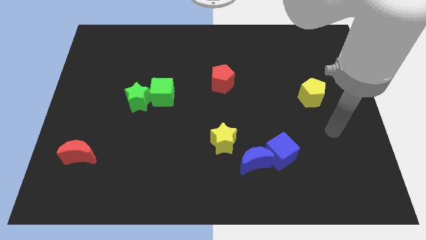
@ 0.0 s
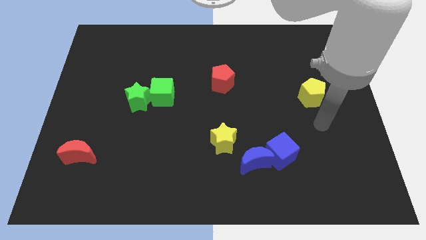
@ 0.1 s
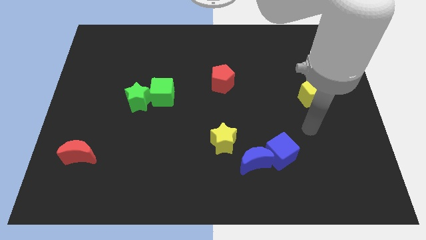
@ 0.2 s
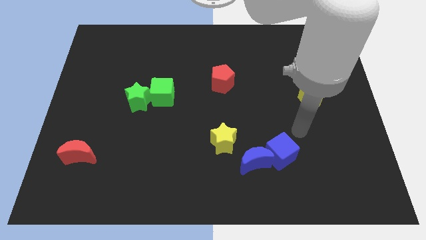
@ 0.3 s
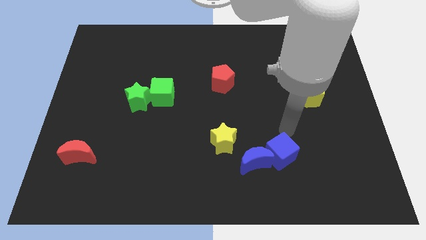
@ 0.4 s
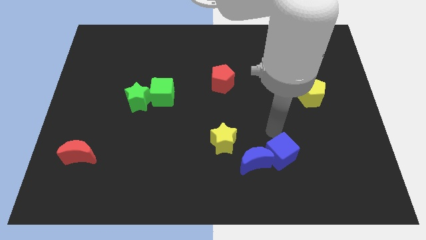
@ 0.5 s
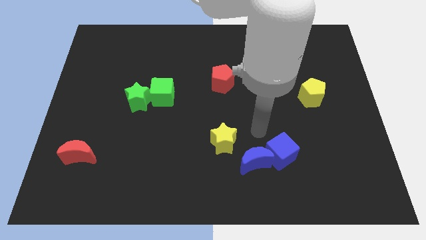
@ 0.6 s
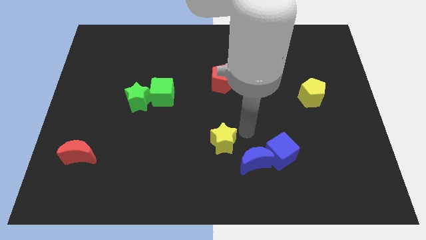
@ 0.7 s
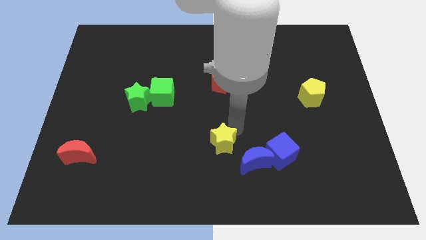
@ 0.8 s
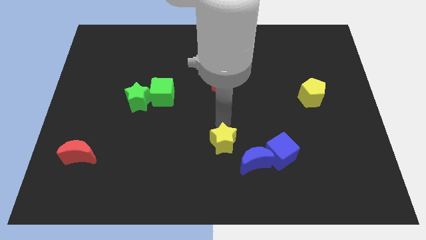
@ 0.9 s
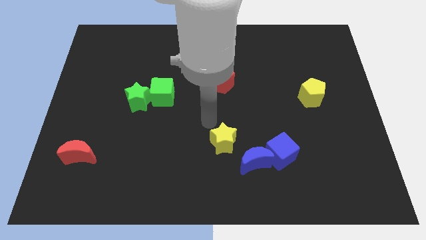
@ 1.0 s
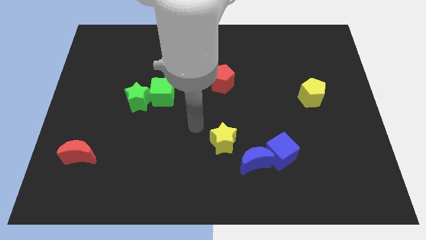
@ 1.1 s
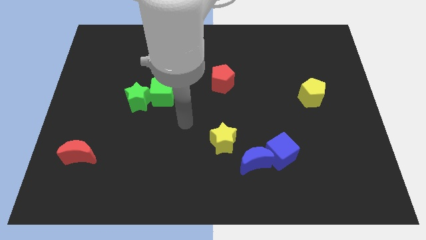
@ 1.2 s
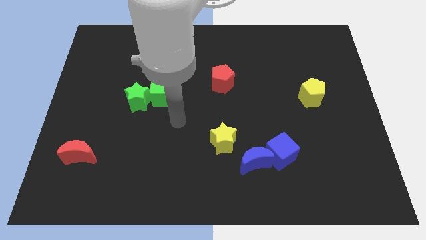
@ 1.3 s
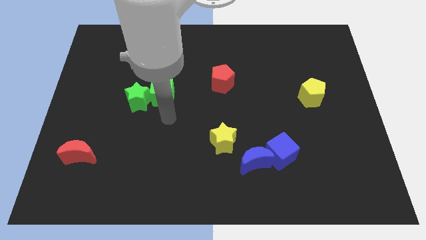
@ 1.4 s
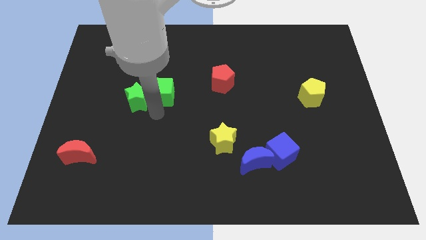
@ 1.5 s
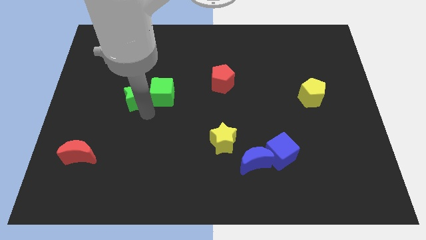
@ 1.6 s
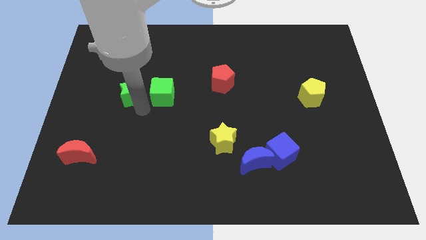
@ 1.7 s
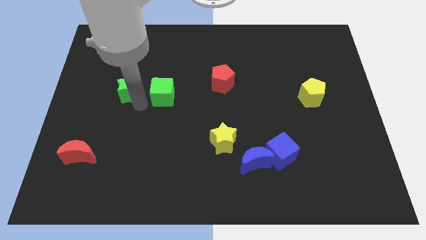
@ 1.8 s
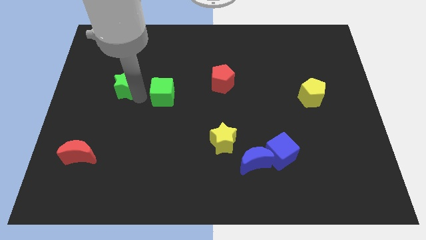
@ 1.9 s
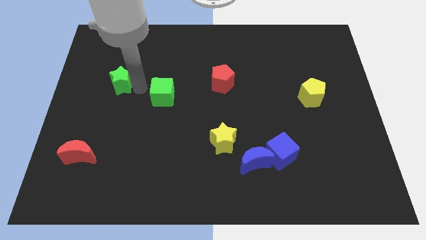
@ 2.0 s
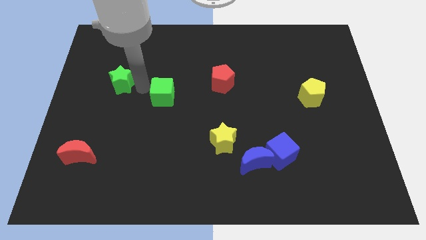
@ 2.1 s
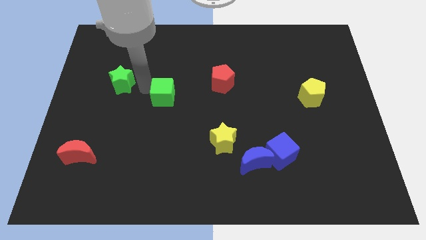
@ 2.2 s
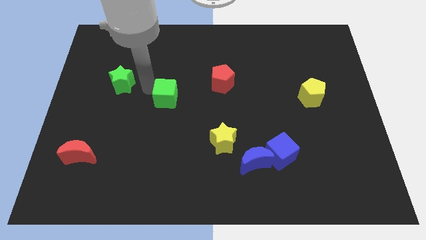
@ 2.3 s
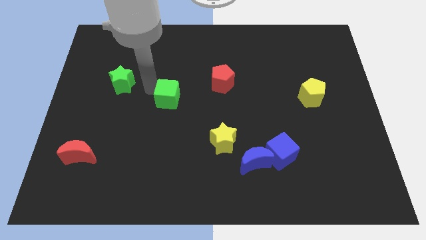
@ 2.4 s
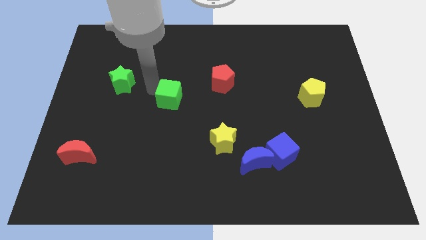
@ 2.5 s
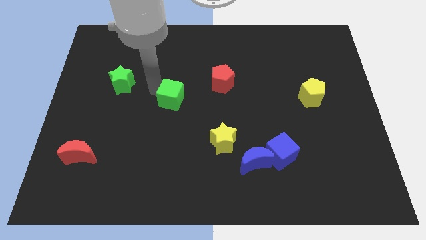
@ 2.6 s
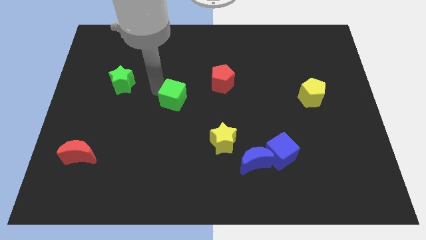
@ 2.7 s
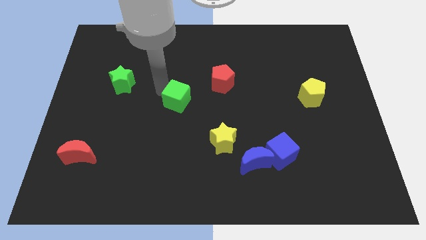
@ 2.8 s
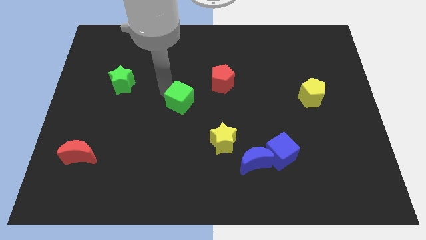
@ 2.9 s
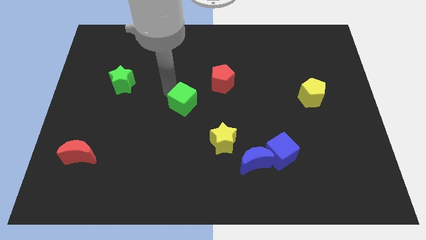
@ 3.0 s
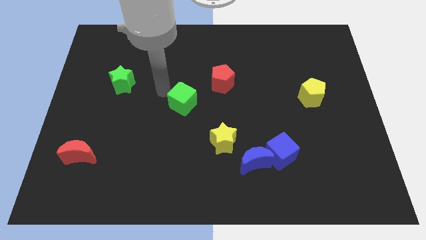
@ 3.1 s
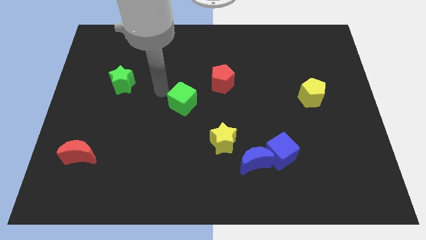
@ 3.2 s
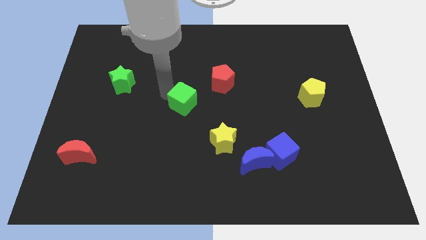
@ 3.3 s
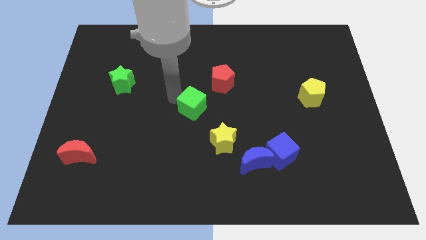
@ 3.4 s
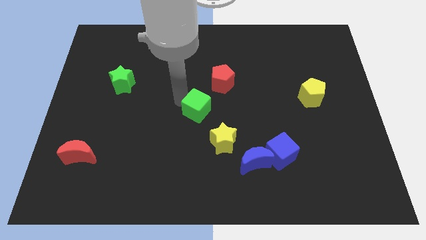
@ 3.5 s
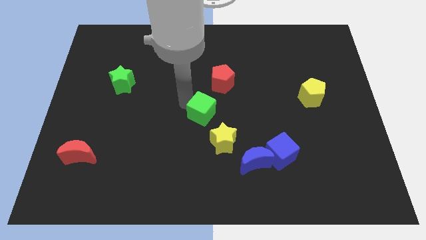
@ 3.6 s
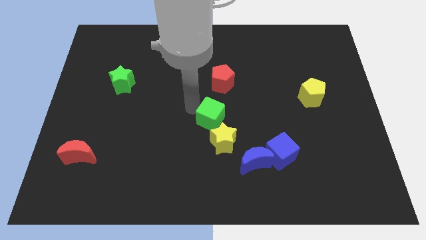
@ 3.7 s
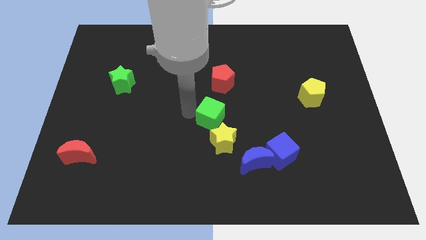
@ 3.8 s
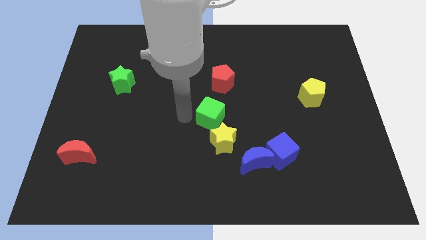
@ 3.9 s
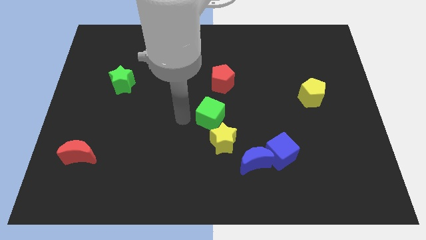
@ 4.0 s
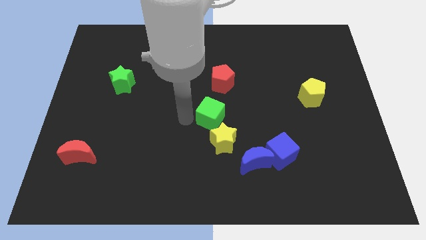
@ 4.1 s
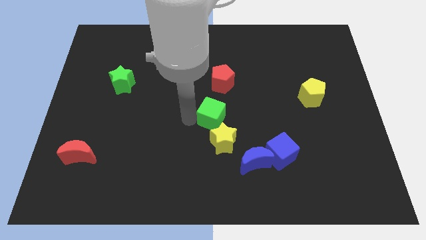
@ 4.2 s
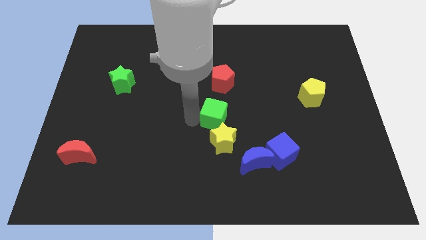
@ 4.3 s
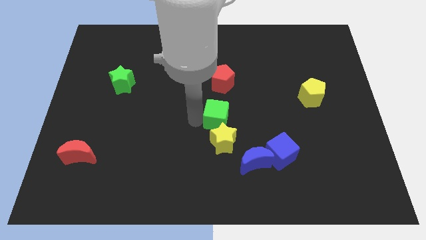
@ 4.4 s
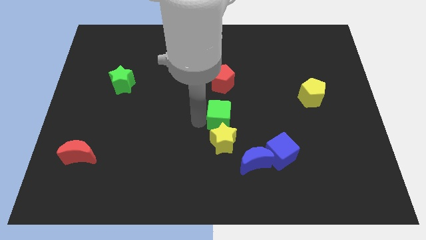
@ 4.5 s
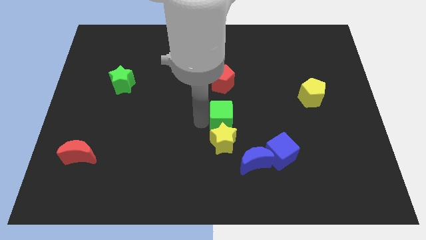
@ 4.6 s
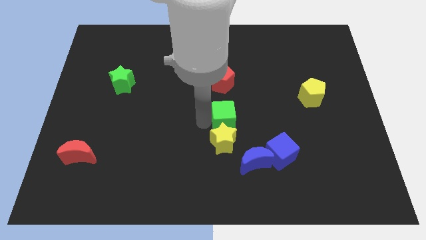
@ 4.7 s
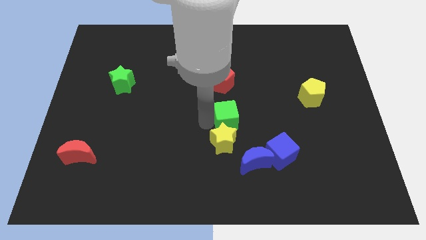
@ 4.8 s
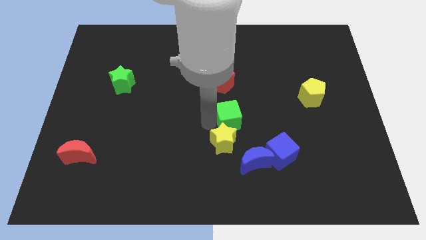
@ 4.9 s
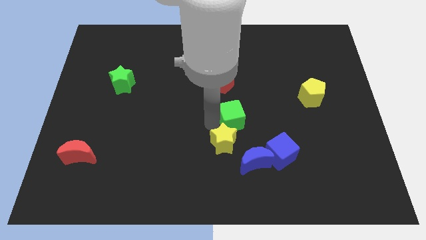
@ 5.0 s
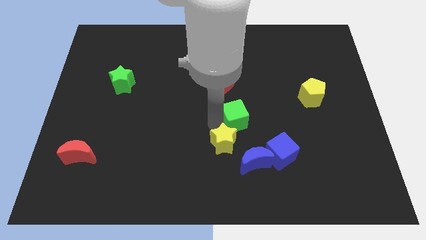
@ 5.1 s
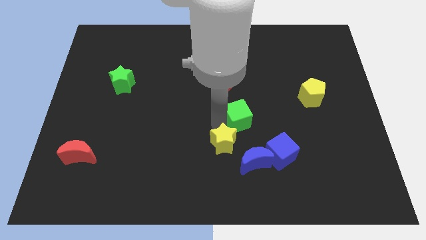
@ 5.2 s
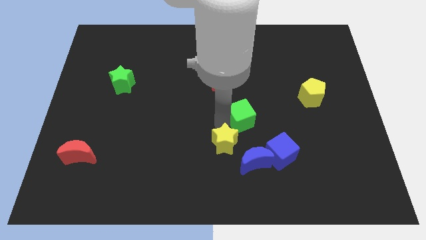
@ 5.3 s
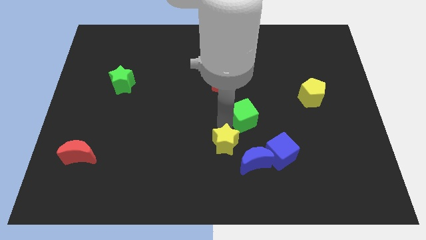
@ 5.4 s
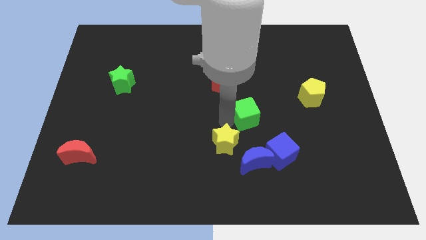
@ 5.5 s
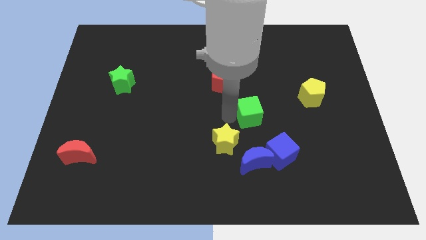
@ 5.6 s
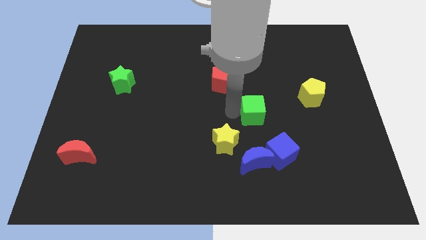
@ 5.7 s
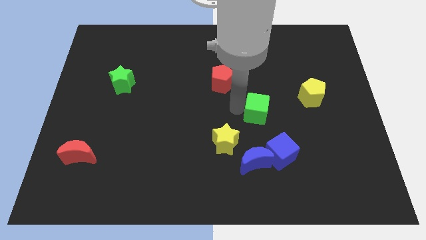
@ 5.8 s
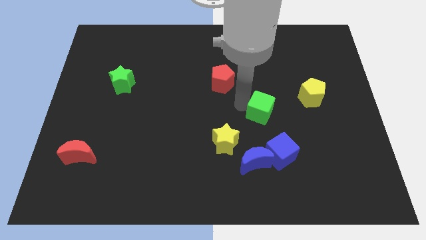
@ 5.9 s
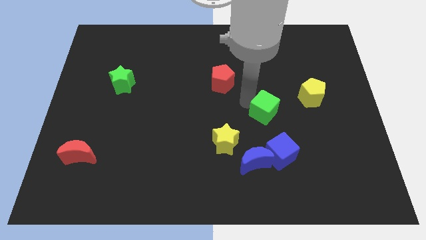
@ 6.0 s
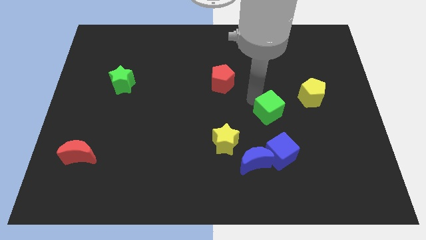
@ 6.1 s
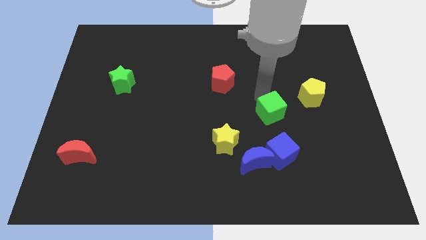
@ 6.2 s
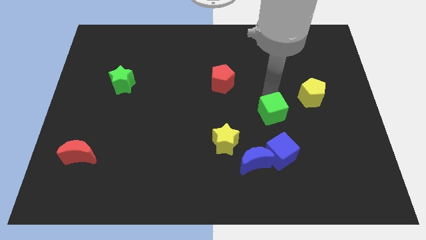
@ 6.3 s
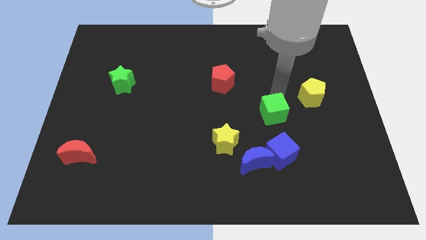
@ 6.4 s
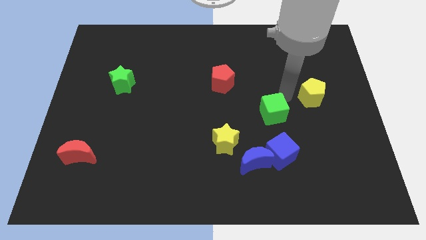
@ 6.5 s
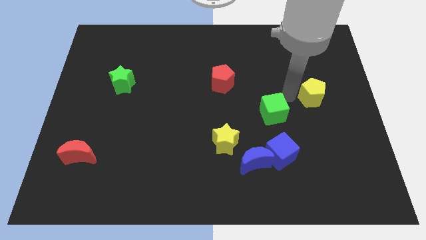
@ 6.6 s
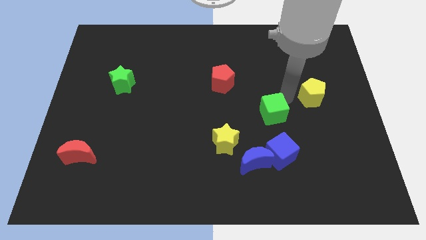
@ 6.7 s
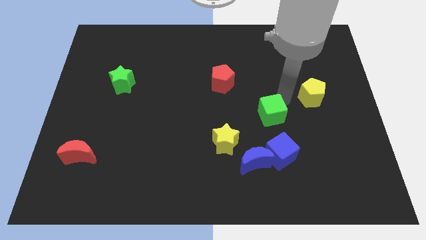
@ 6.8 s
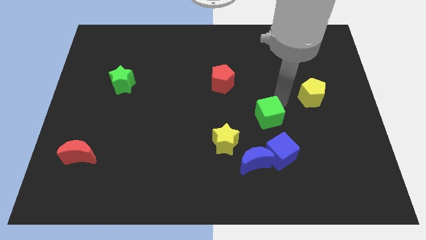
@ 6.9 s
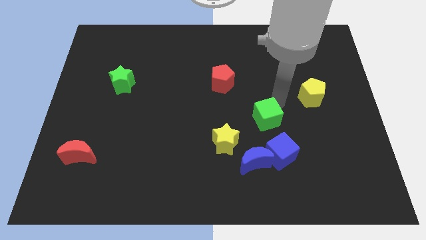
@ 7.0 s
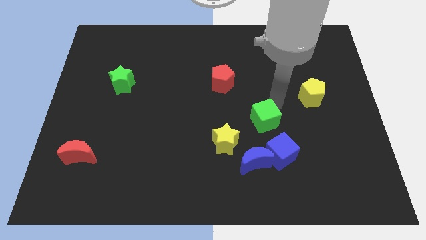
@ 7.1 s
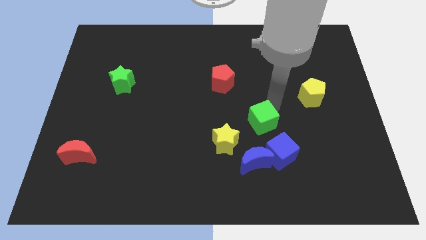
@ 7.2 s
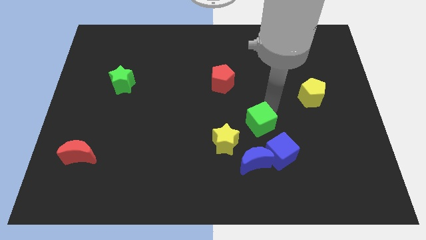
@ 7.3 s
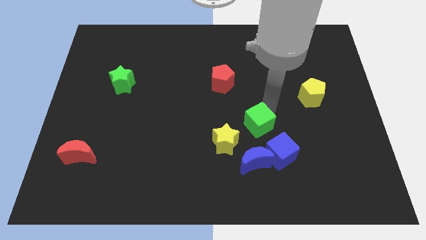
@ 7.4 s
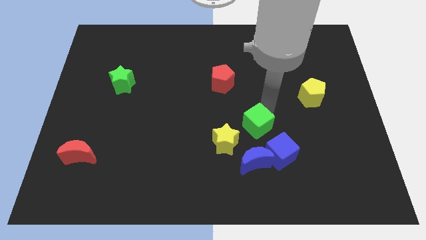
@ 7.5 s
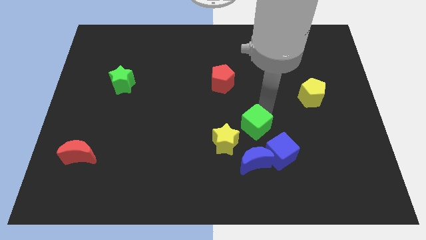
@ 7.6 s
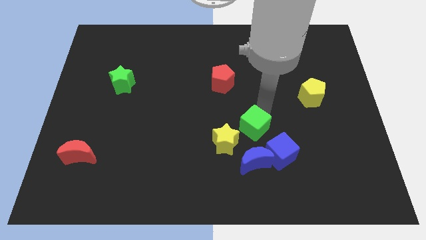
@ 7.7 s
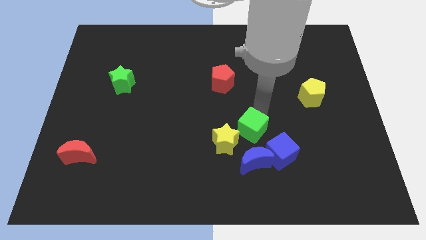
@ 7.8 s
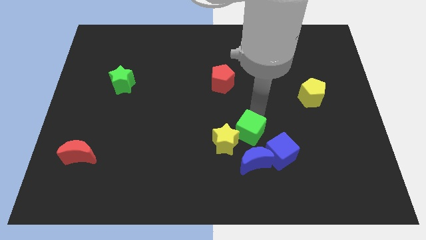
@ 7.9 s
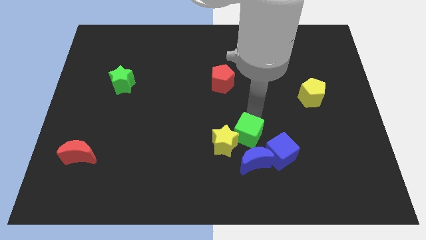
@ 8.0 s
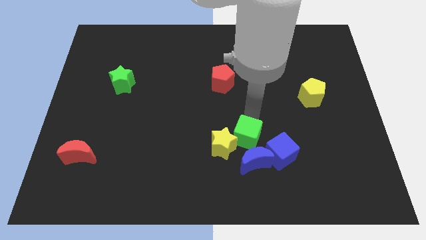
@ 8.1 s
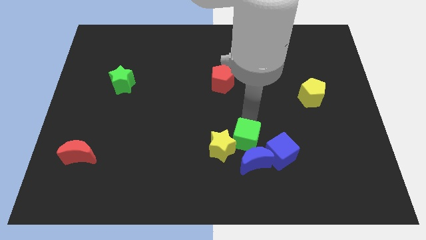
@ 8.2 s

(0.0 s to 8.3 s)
move the green cube close to the blue moon

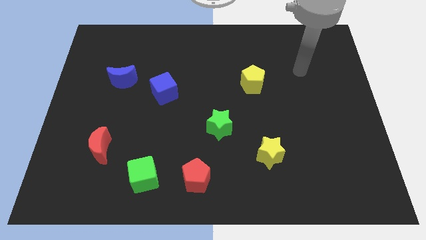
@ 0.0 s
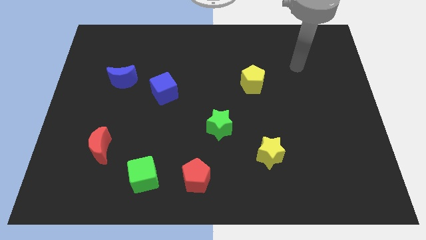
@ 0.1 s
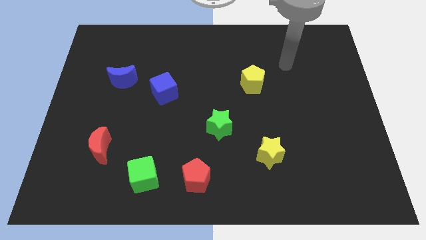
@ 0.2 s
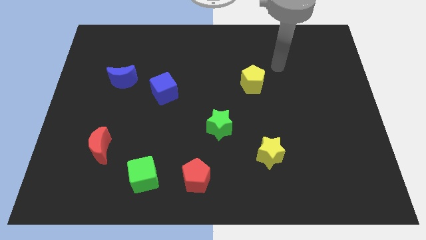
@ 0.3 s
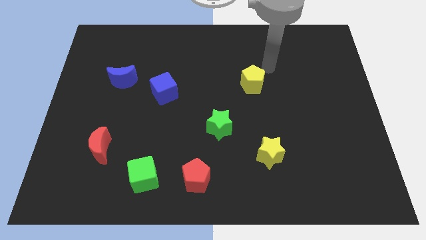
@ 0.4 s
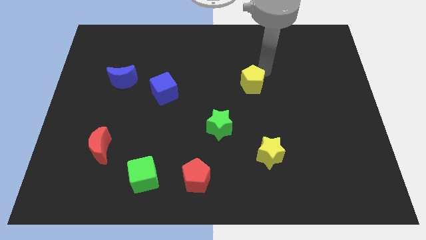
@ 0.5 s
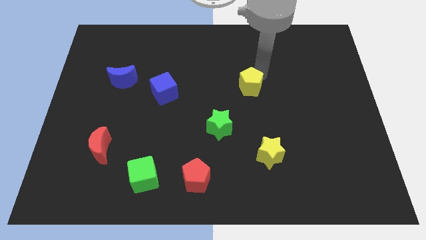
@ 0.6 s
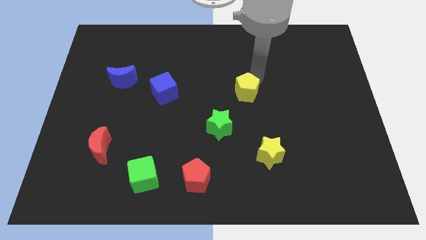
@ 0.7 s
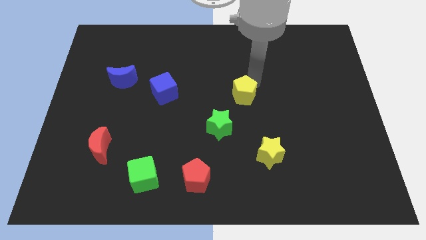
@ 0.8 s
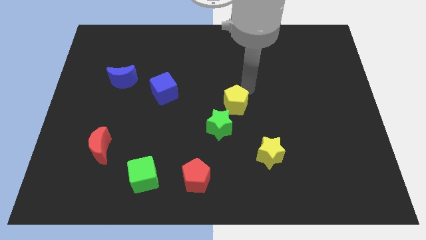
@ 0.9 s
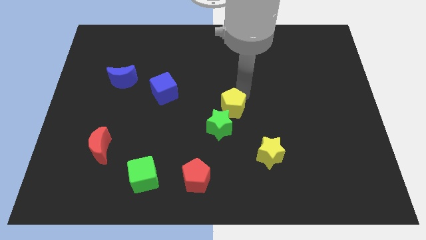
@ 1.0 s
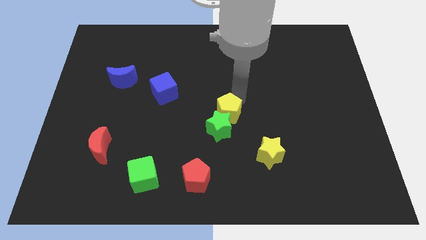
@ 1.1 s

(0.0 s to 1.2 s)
move the yellow pentagon to the green star
